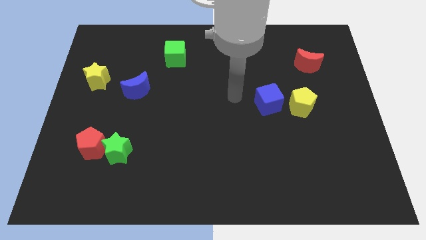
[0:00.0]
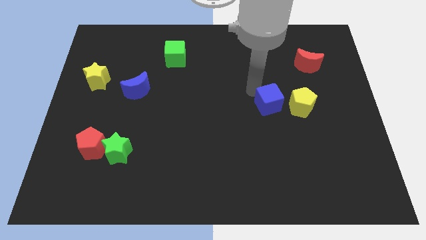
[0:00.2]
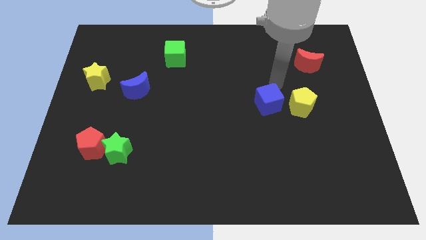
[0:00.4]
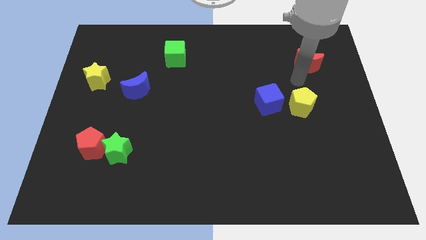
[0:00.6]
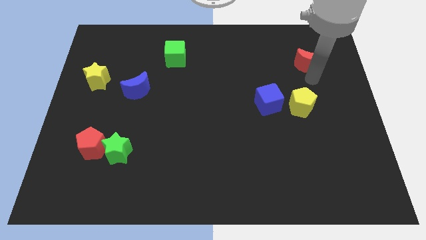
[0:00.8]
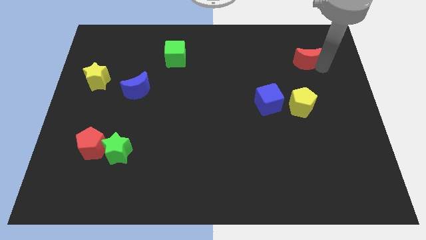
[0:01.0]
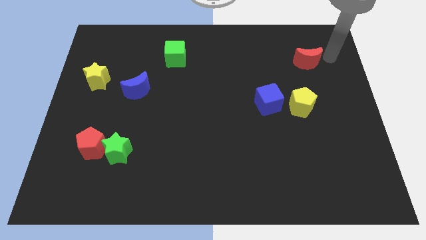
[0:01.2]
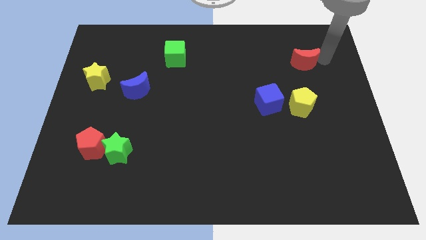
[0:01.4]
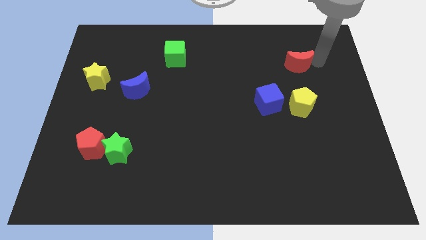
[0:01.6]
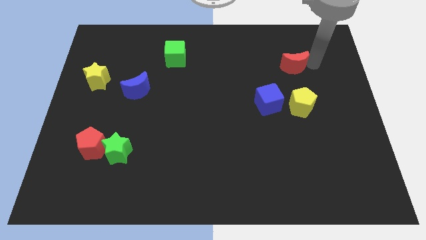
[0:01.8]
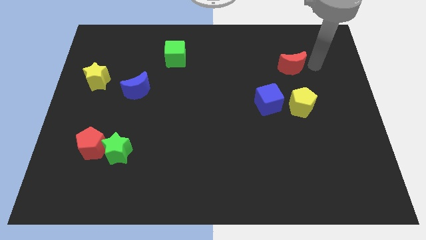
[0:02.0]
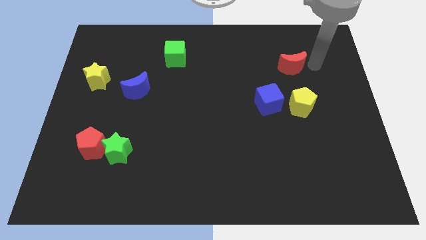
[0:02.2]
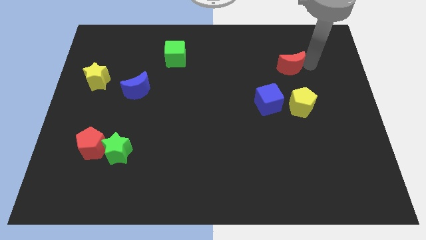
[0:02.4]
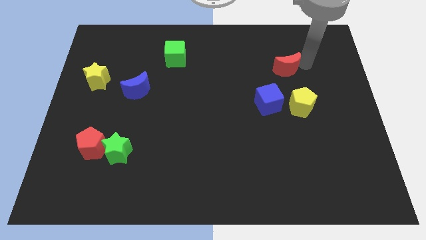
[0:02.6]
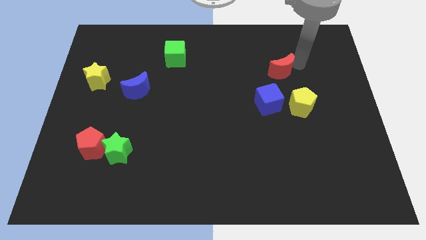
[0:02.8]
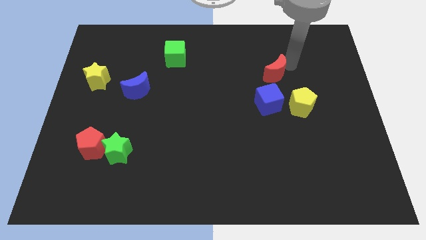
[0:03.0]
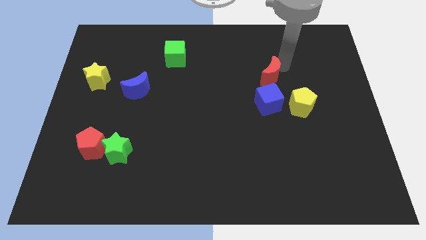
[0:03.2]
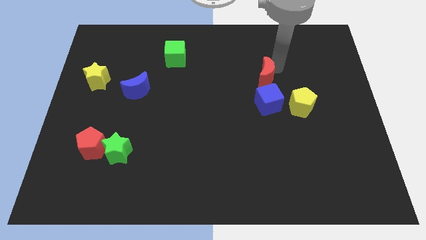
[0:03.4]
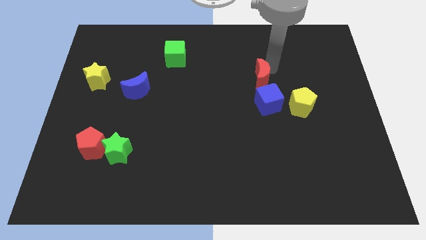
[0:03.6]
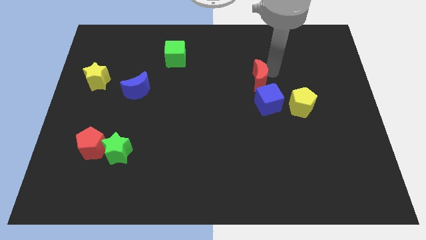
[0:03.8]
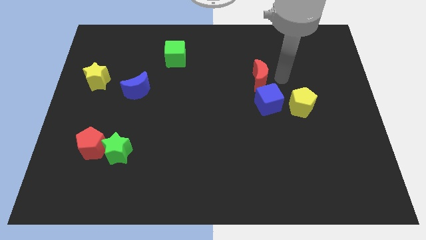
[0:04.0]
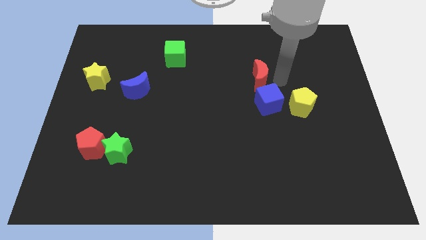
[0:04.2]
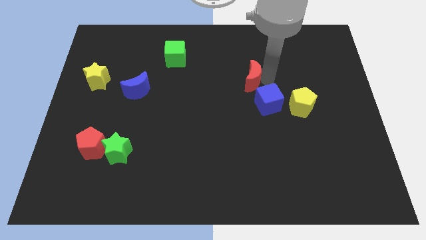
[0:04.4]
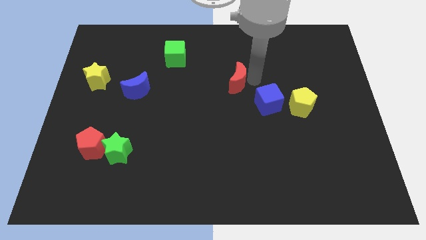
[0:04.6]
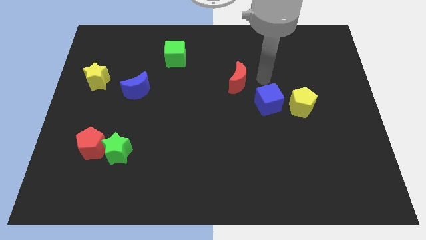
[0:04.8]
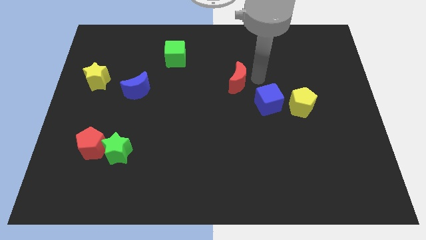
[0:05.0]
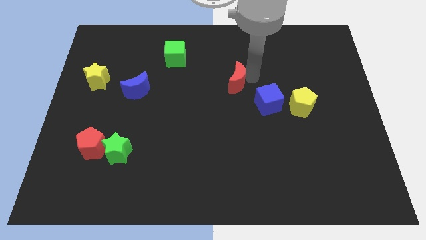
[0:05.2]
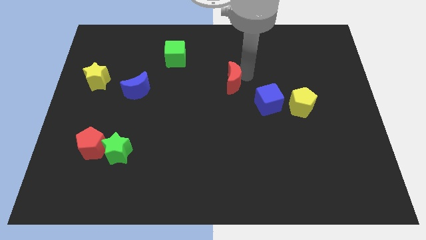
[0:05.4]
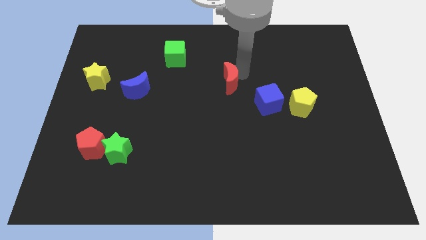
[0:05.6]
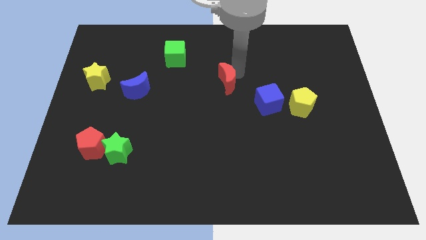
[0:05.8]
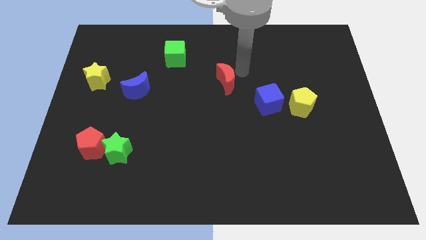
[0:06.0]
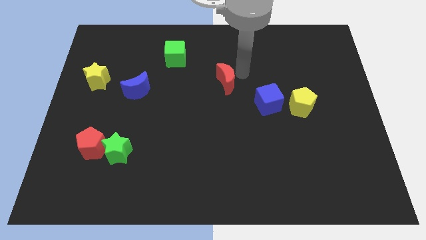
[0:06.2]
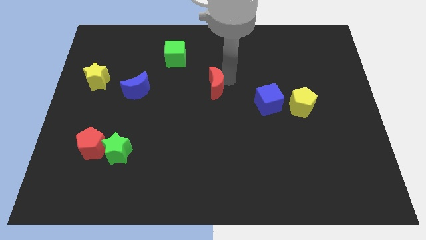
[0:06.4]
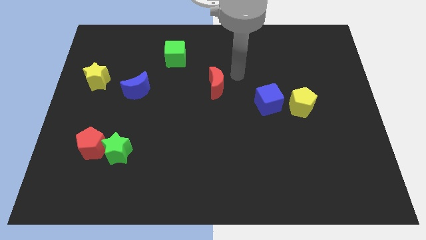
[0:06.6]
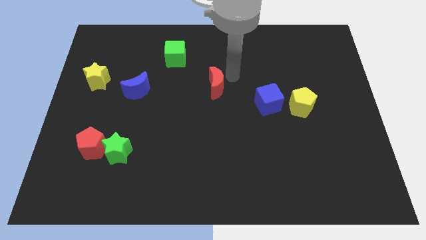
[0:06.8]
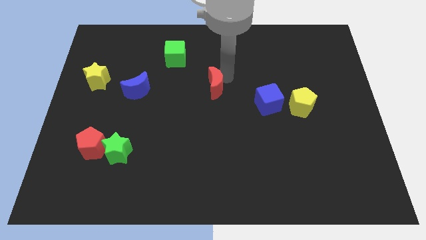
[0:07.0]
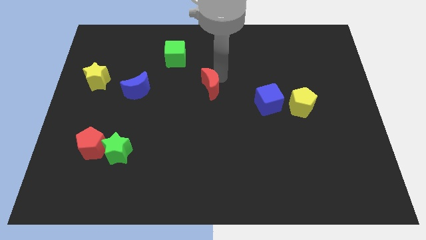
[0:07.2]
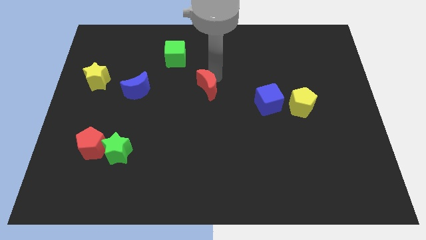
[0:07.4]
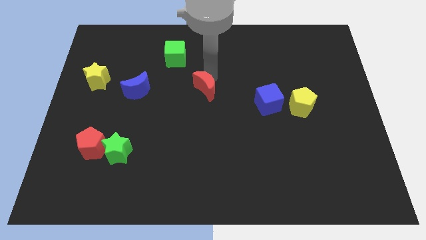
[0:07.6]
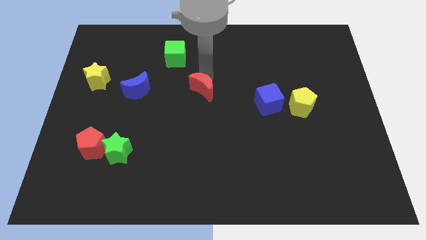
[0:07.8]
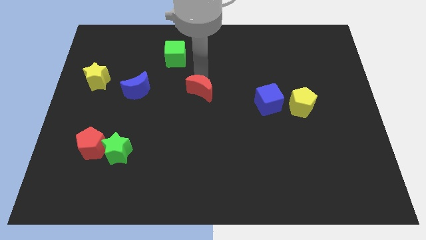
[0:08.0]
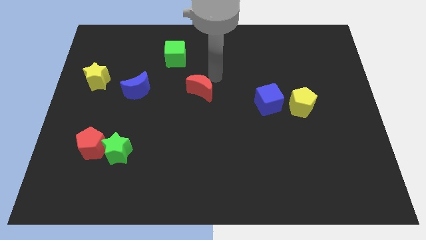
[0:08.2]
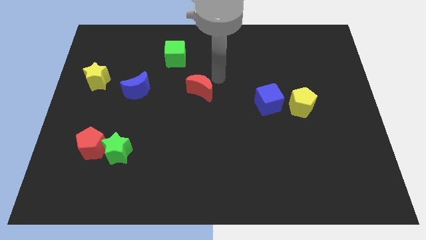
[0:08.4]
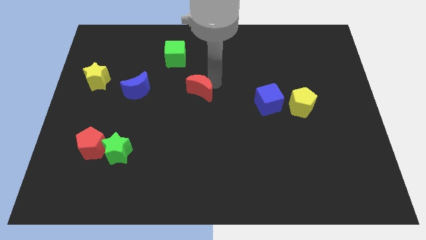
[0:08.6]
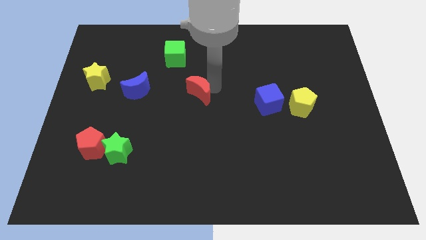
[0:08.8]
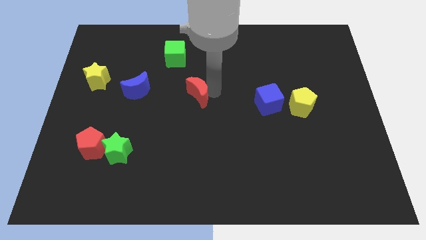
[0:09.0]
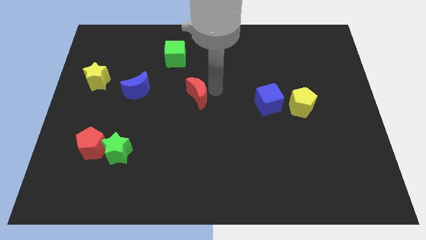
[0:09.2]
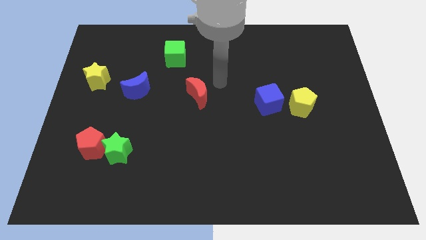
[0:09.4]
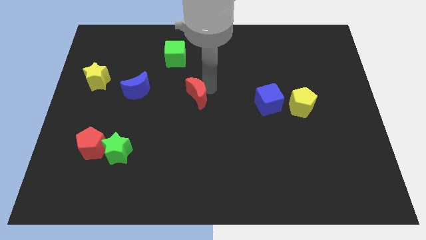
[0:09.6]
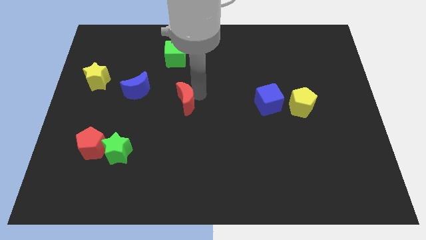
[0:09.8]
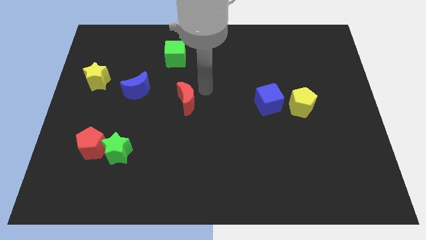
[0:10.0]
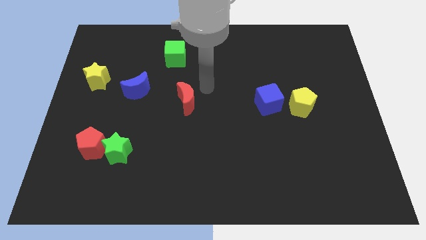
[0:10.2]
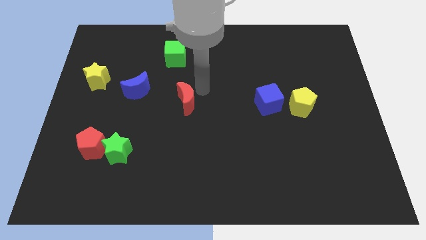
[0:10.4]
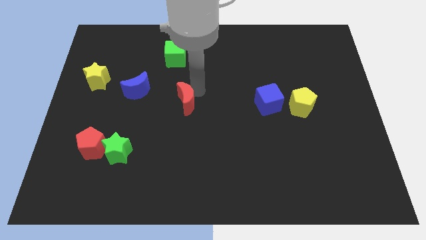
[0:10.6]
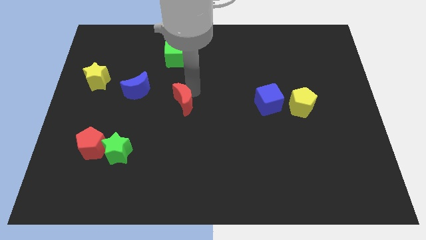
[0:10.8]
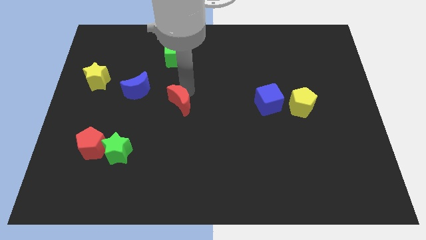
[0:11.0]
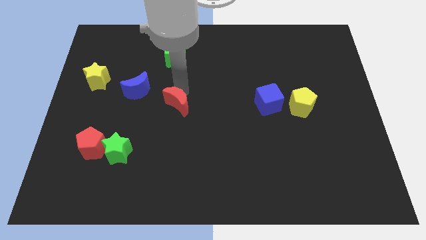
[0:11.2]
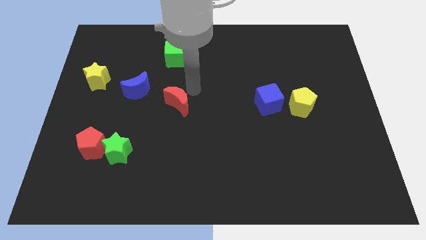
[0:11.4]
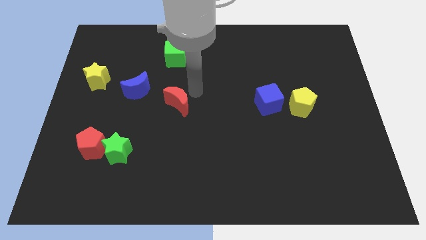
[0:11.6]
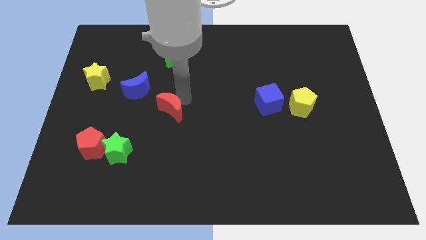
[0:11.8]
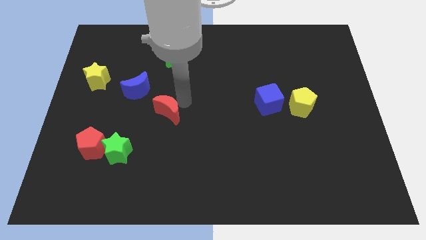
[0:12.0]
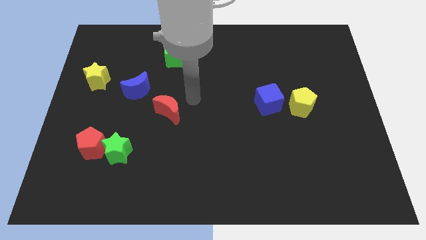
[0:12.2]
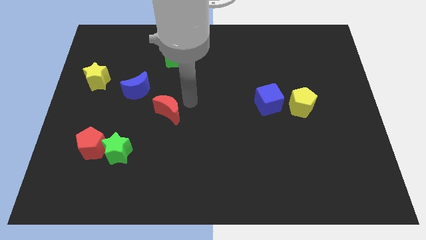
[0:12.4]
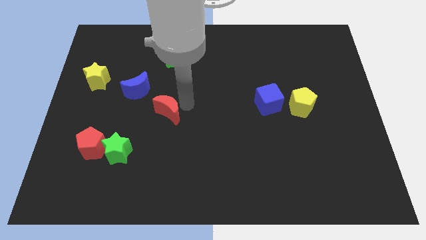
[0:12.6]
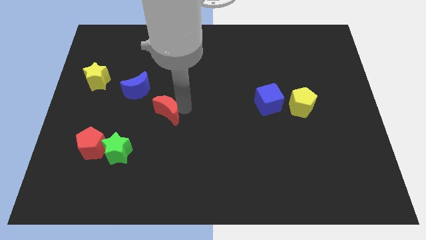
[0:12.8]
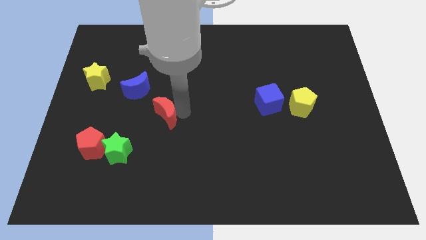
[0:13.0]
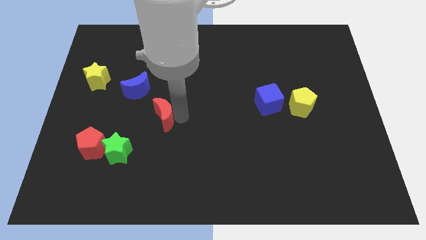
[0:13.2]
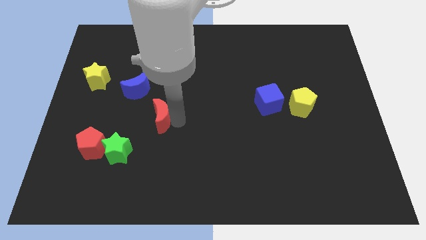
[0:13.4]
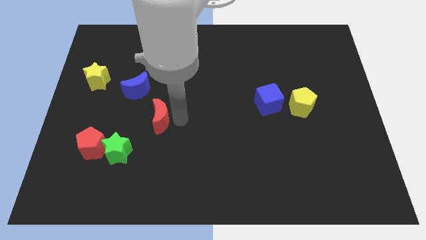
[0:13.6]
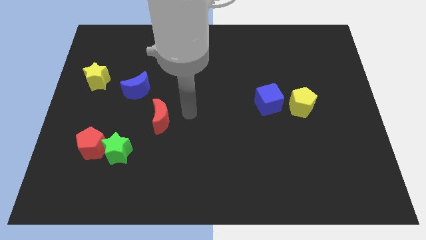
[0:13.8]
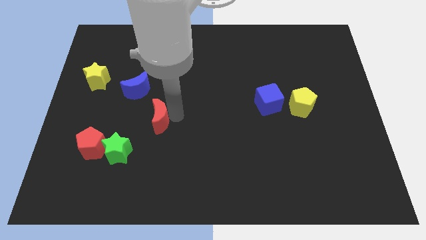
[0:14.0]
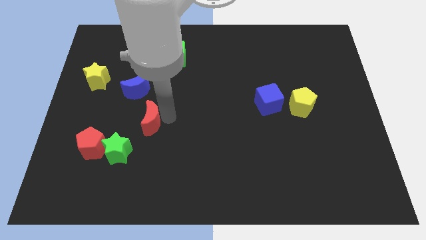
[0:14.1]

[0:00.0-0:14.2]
move the red moon below the blue moon

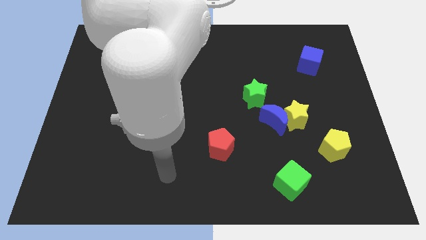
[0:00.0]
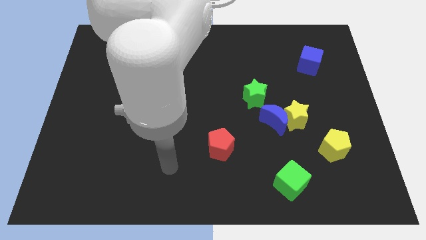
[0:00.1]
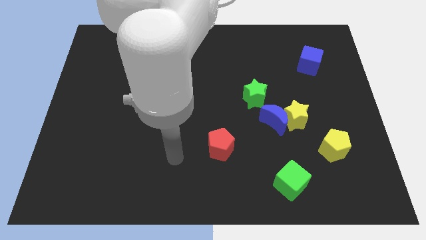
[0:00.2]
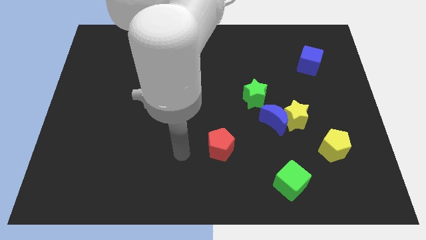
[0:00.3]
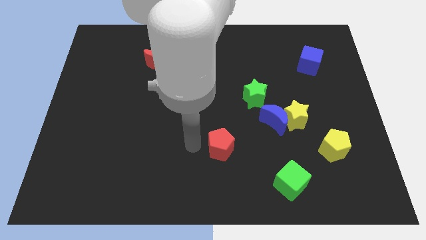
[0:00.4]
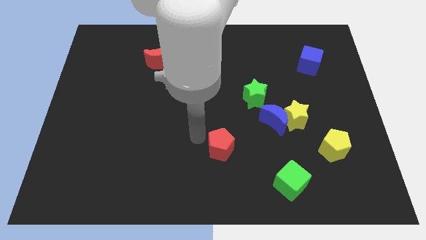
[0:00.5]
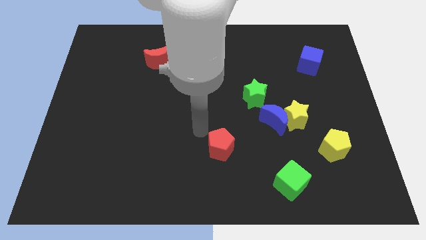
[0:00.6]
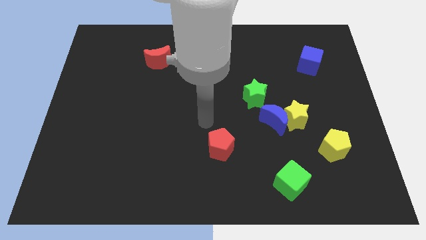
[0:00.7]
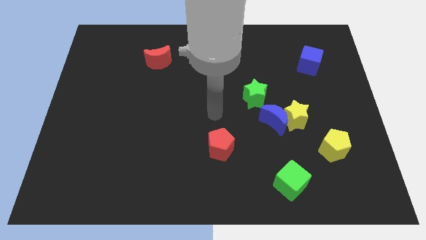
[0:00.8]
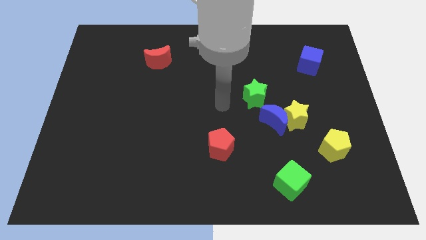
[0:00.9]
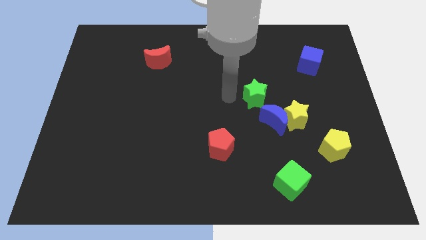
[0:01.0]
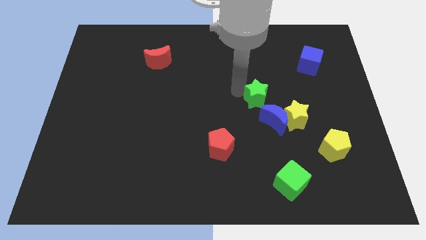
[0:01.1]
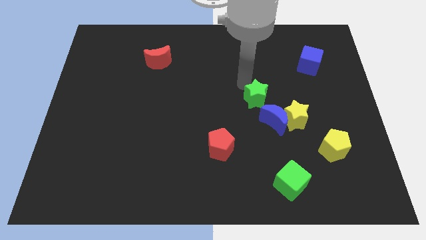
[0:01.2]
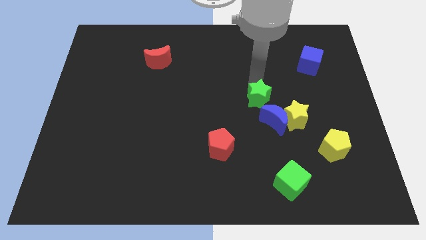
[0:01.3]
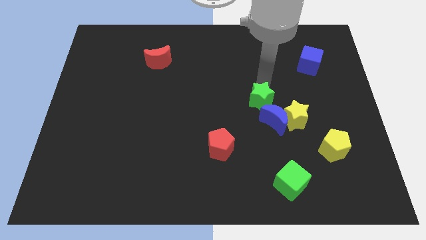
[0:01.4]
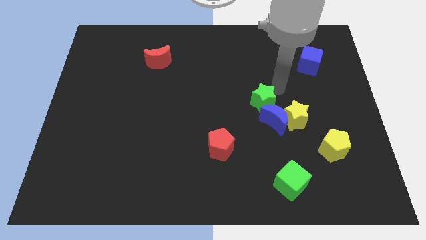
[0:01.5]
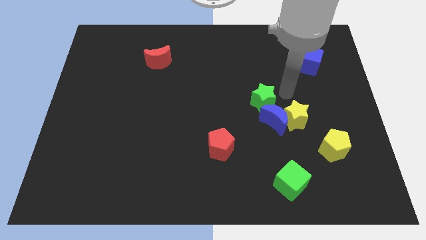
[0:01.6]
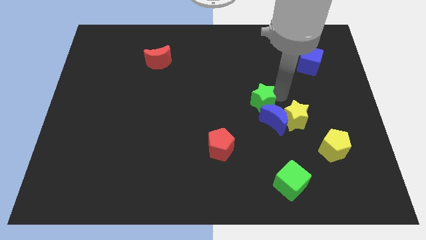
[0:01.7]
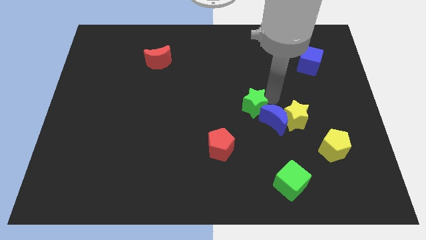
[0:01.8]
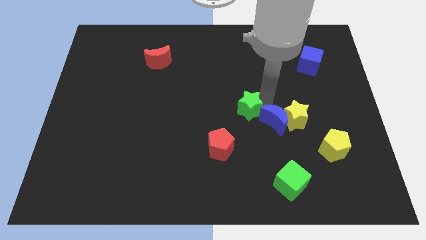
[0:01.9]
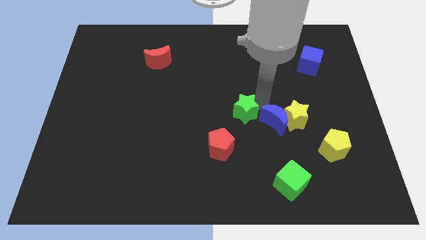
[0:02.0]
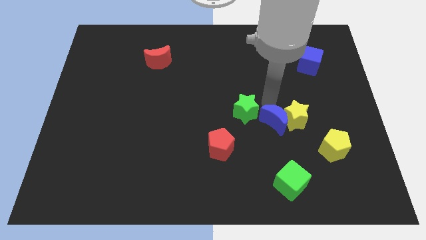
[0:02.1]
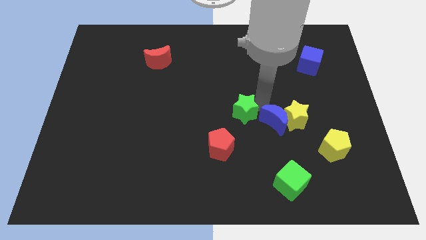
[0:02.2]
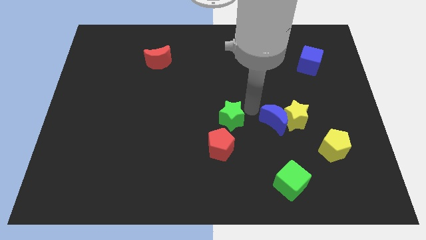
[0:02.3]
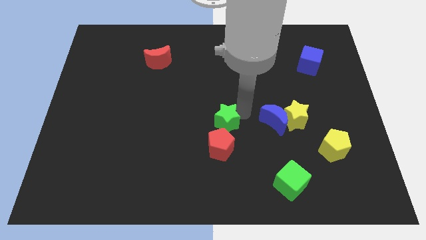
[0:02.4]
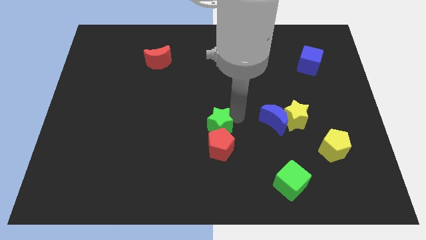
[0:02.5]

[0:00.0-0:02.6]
push the green star diagonally up and to the left of the red pentagon
